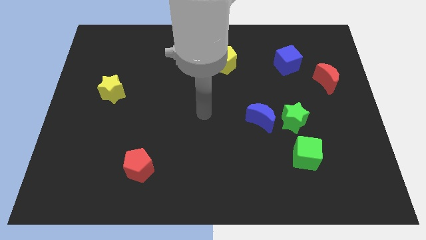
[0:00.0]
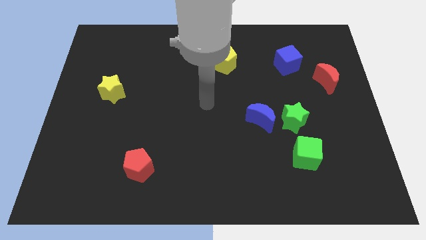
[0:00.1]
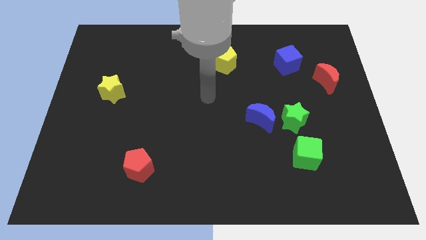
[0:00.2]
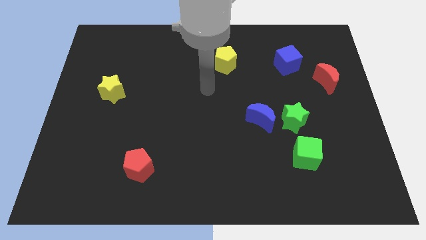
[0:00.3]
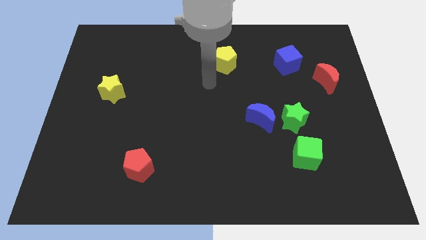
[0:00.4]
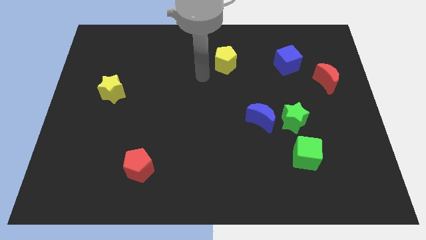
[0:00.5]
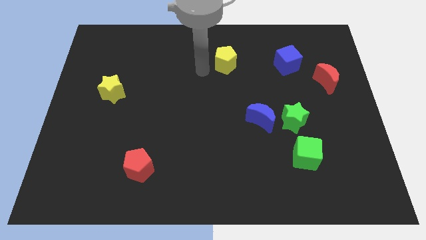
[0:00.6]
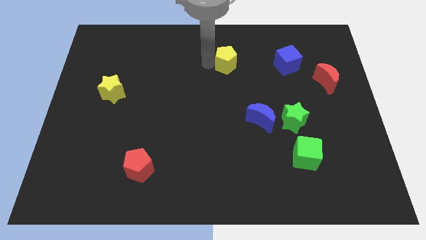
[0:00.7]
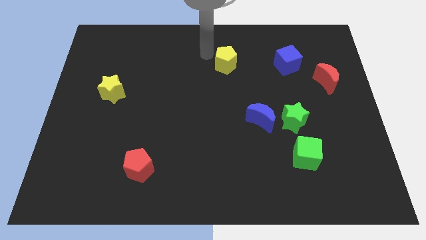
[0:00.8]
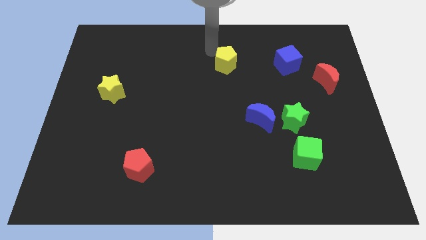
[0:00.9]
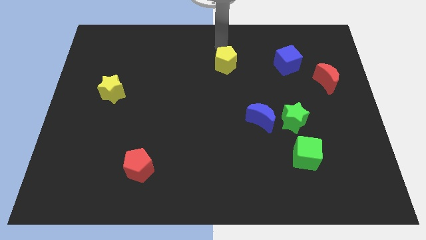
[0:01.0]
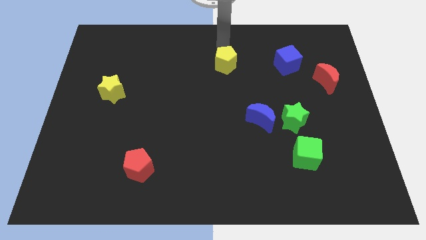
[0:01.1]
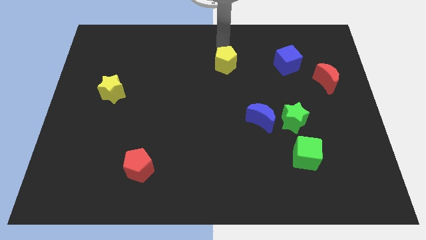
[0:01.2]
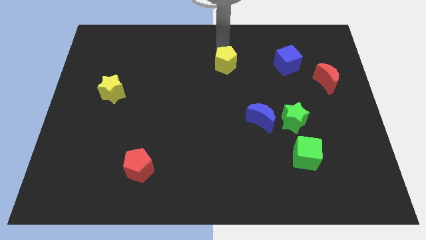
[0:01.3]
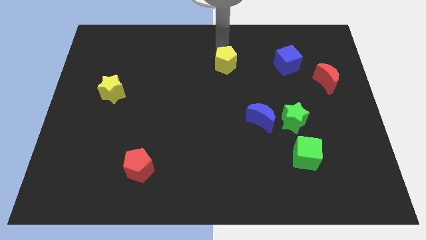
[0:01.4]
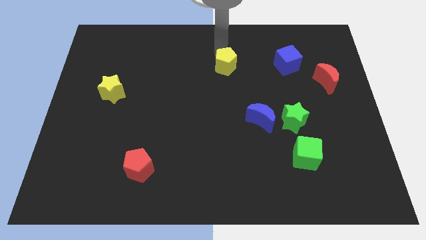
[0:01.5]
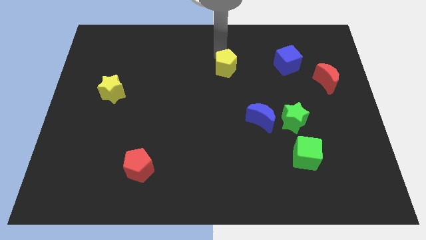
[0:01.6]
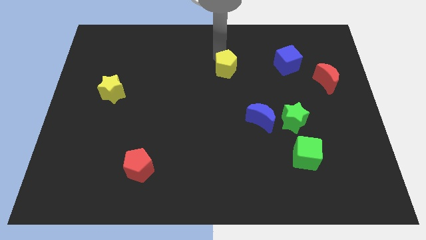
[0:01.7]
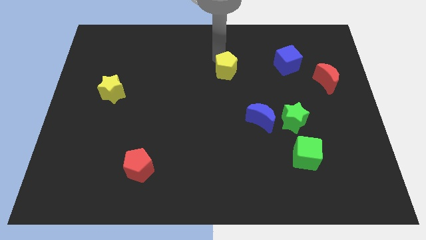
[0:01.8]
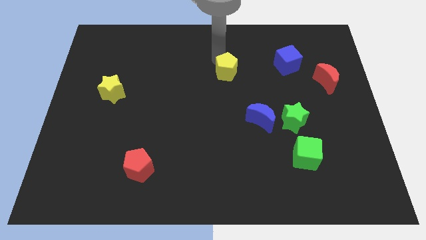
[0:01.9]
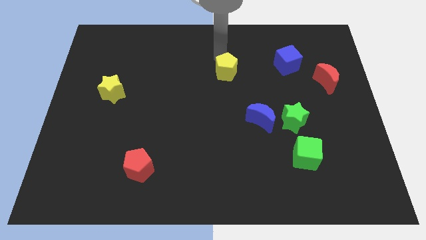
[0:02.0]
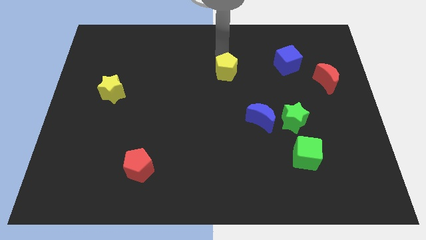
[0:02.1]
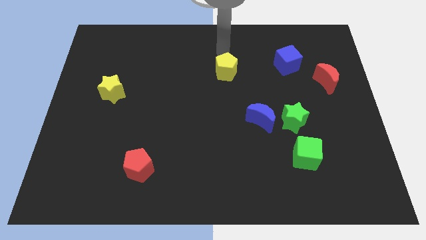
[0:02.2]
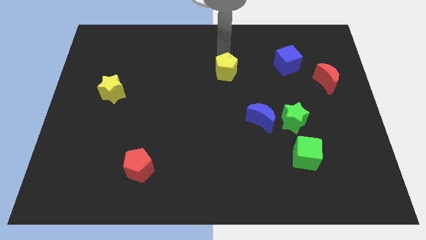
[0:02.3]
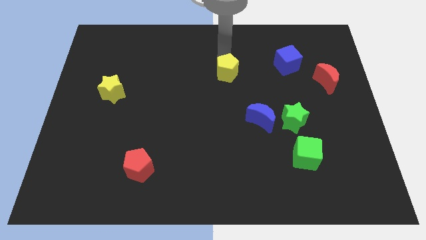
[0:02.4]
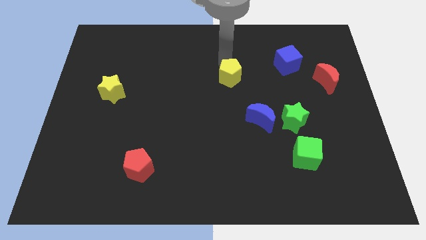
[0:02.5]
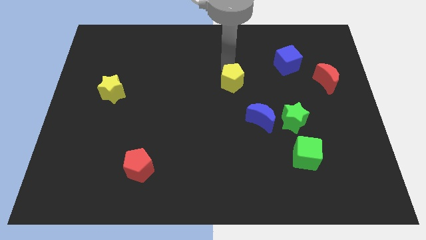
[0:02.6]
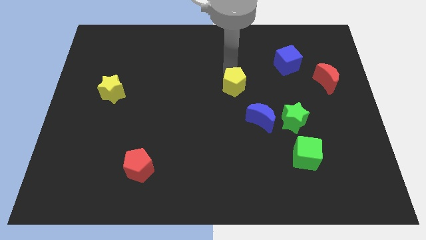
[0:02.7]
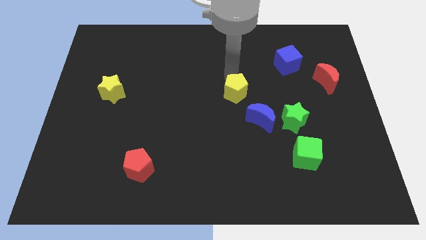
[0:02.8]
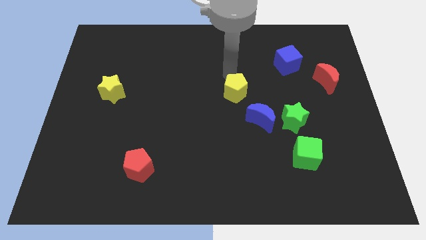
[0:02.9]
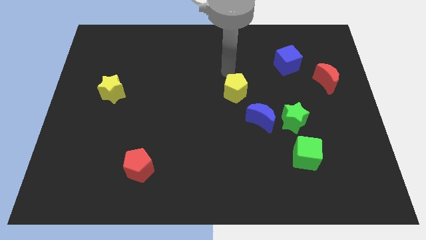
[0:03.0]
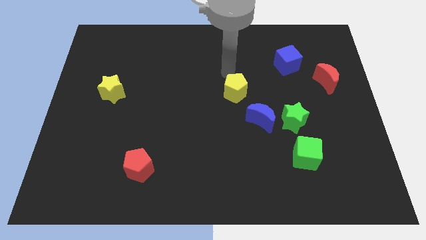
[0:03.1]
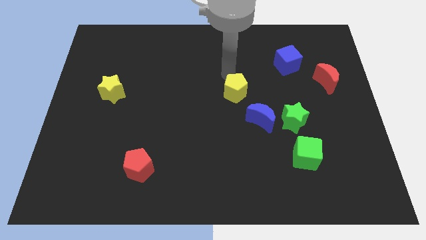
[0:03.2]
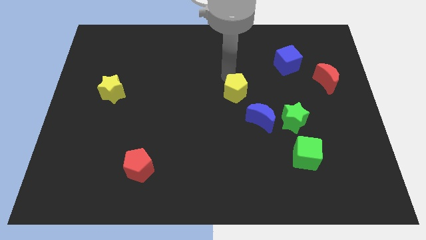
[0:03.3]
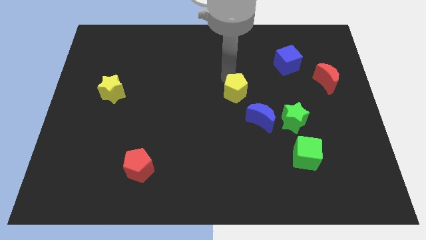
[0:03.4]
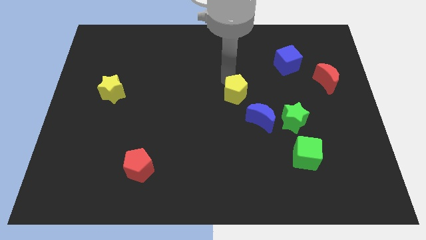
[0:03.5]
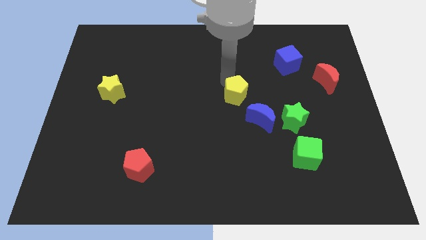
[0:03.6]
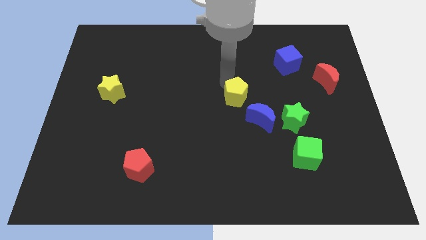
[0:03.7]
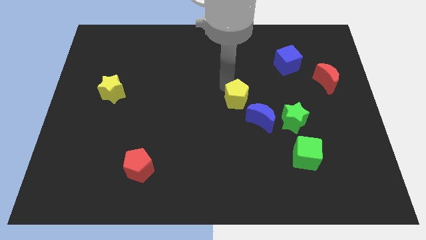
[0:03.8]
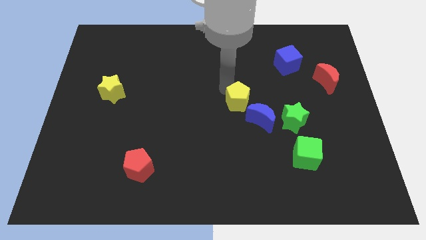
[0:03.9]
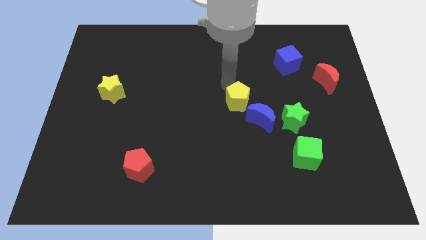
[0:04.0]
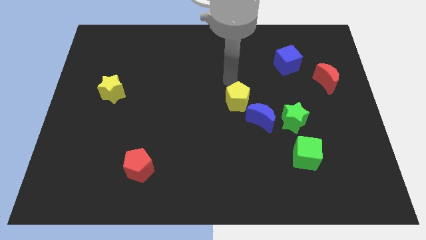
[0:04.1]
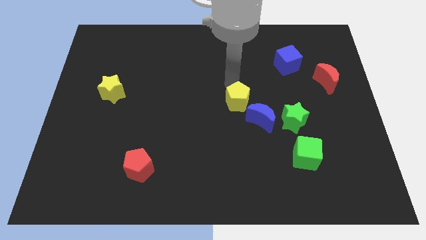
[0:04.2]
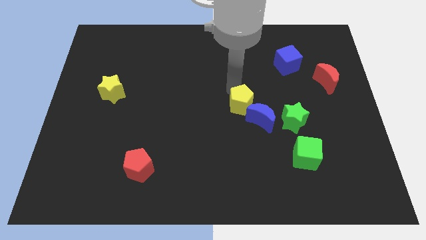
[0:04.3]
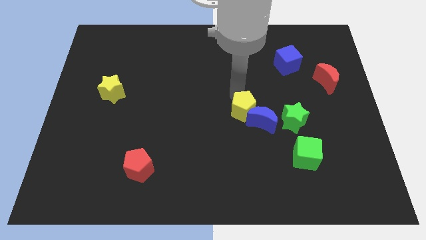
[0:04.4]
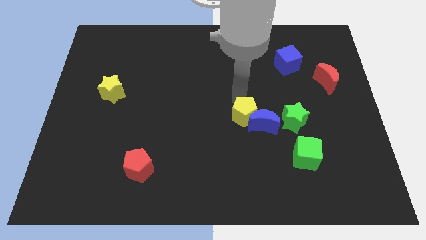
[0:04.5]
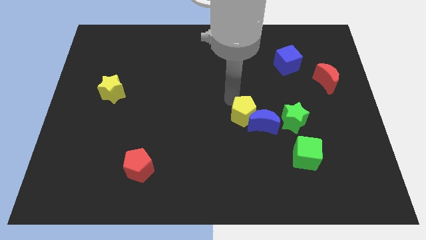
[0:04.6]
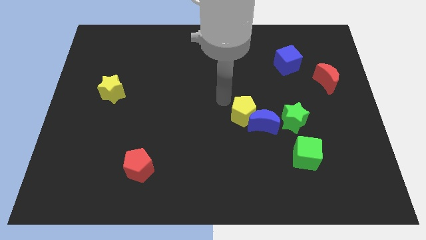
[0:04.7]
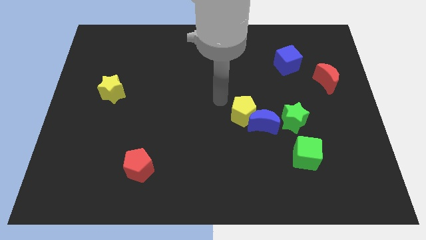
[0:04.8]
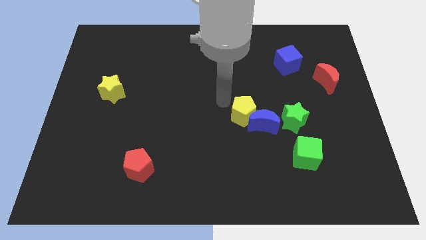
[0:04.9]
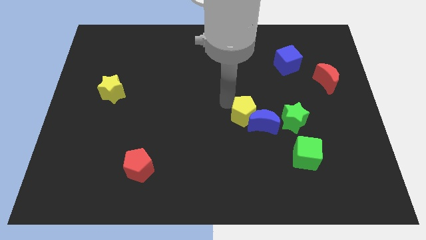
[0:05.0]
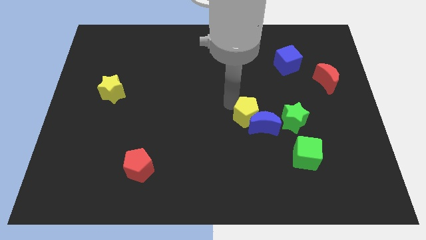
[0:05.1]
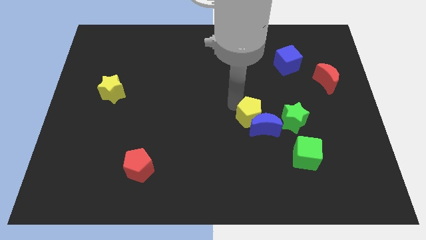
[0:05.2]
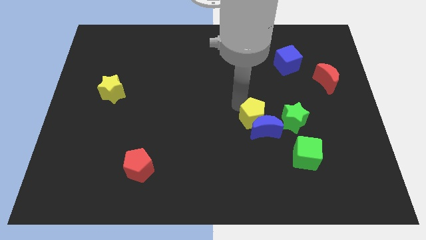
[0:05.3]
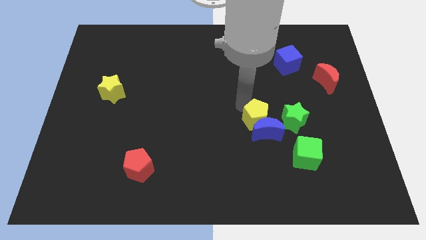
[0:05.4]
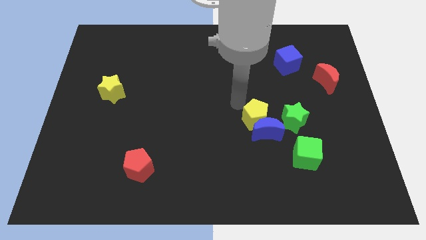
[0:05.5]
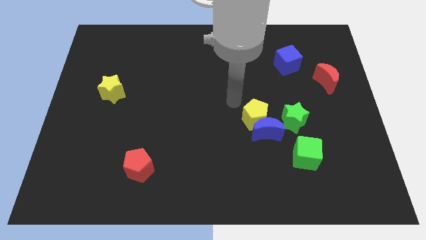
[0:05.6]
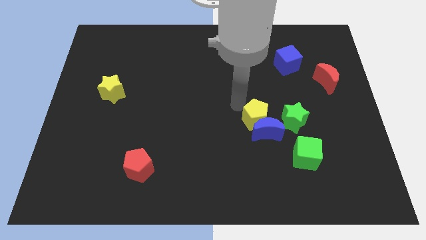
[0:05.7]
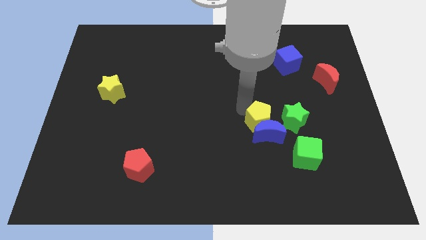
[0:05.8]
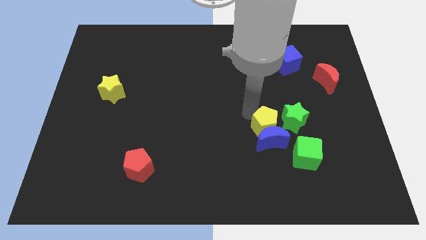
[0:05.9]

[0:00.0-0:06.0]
slide the yellow pentagon diagonally up and to the left of the green cube
